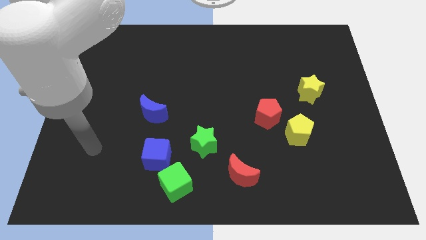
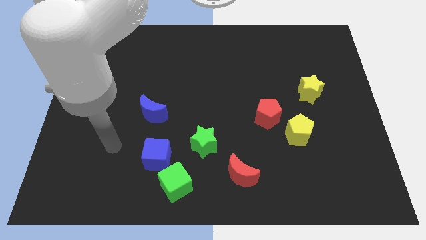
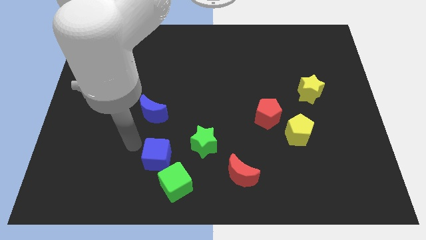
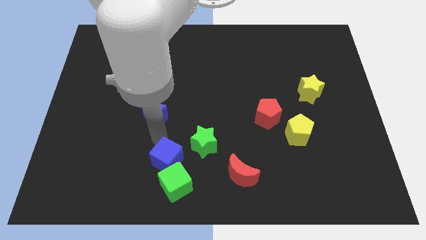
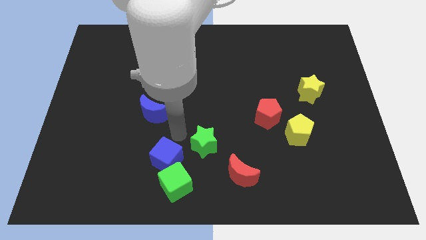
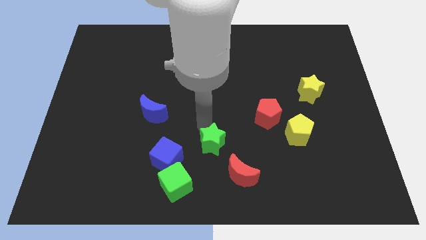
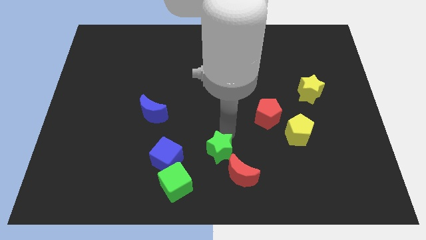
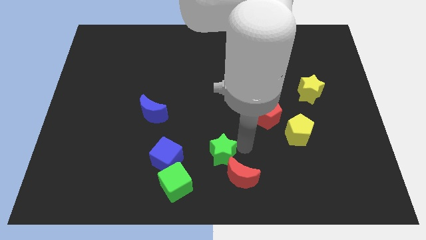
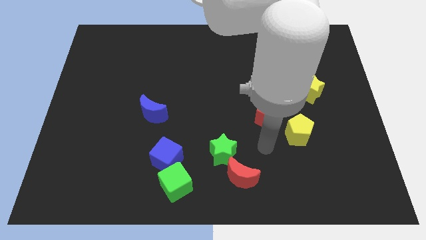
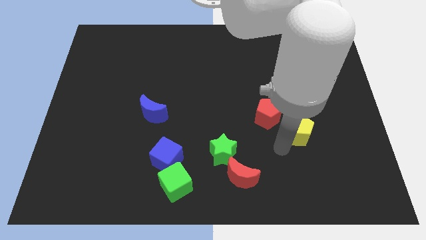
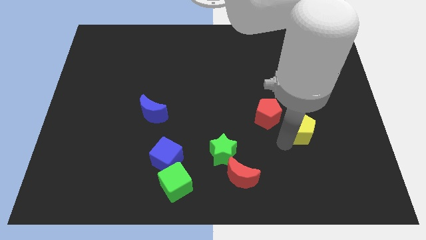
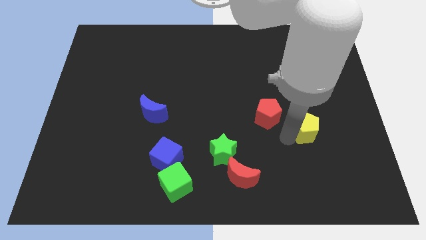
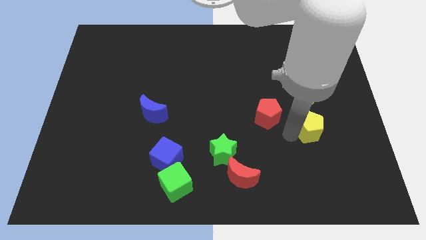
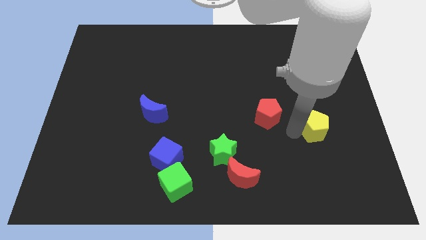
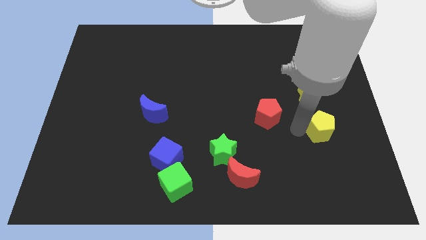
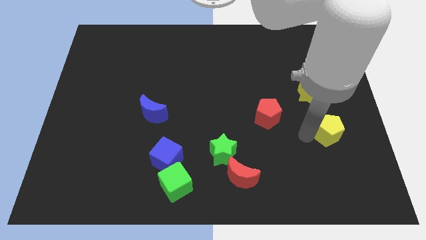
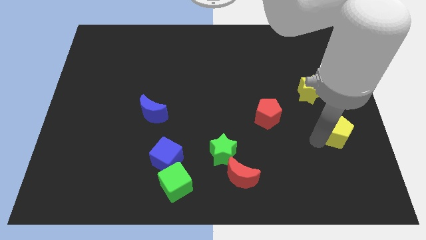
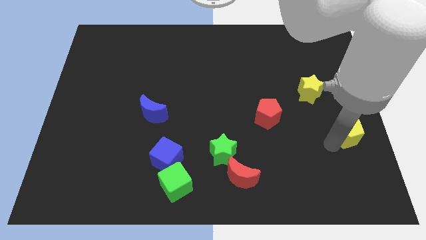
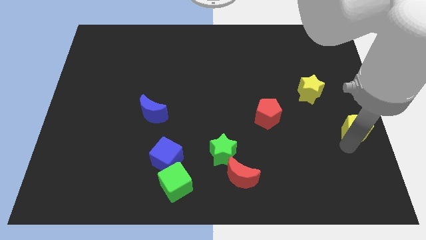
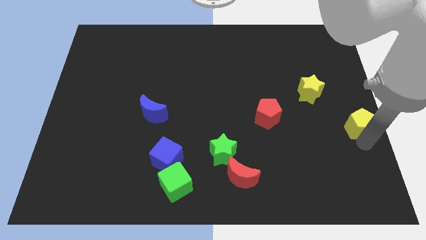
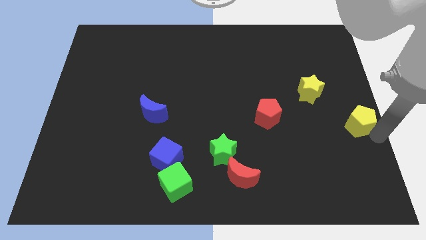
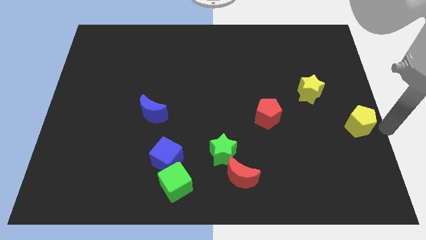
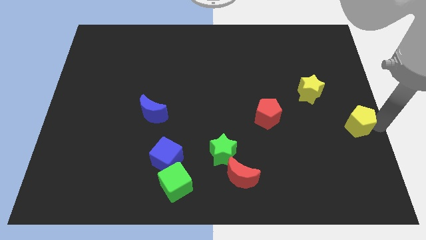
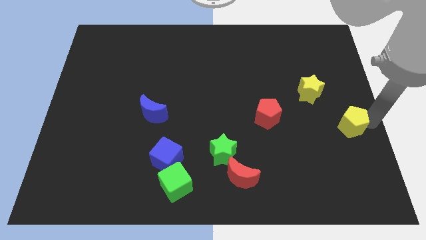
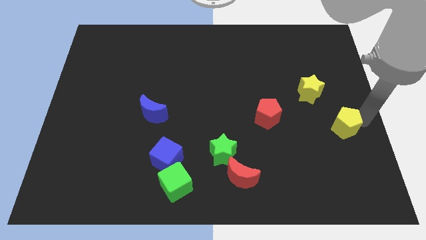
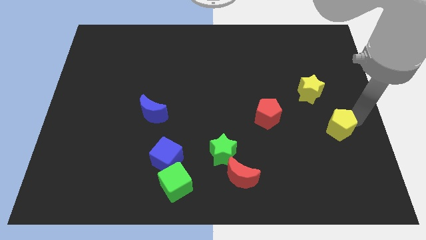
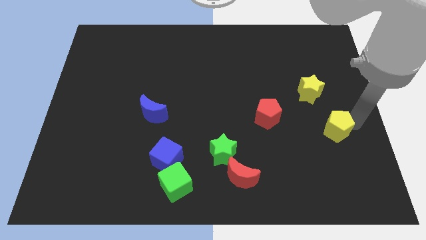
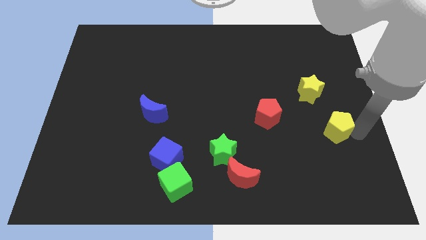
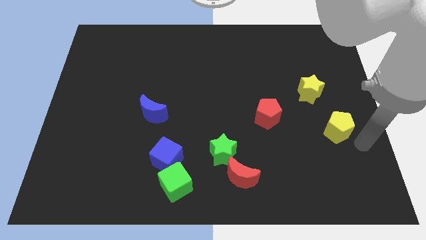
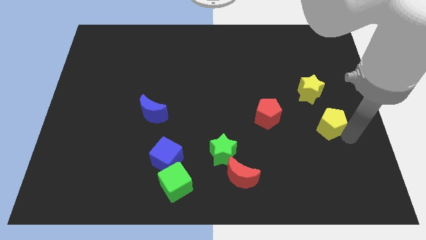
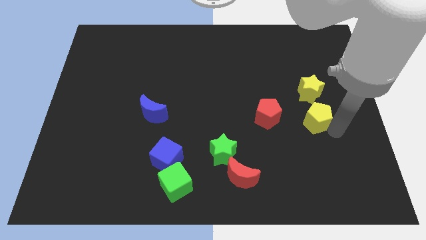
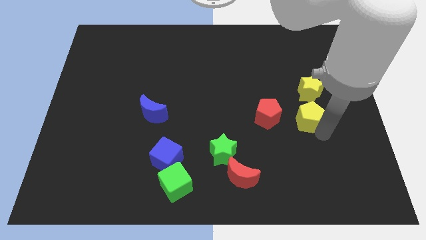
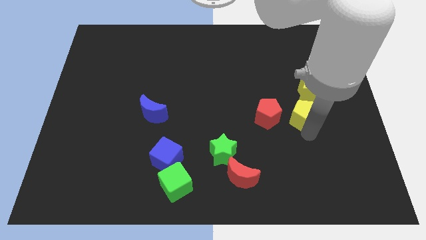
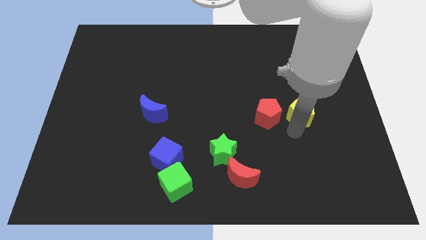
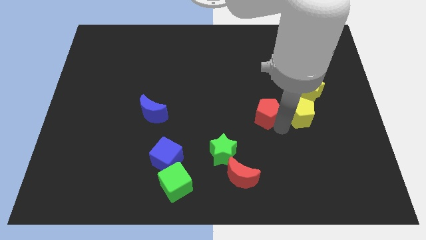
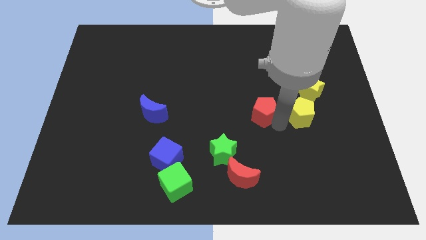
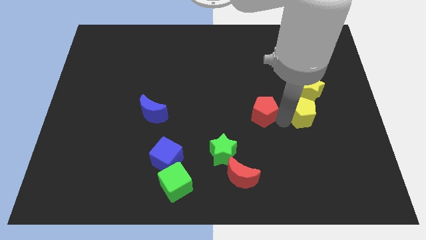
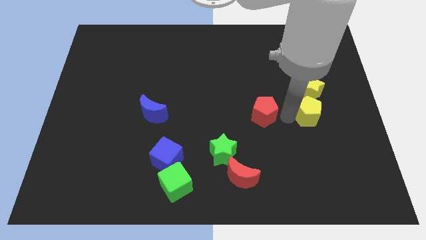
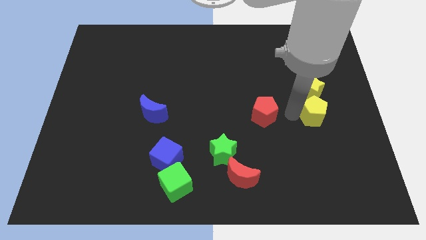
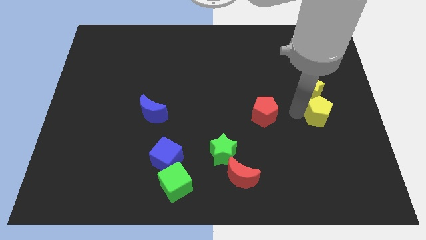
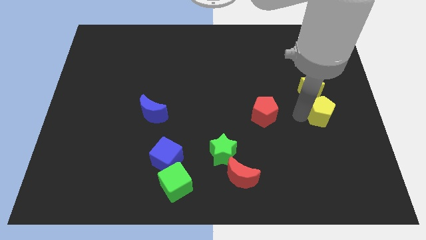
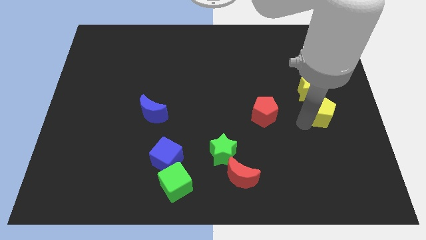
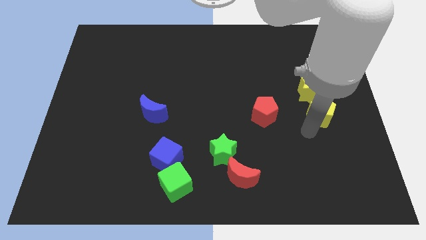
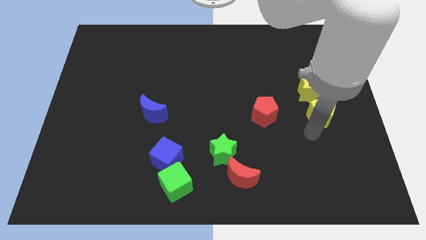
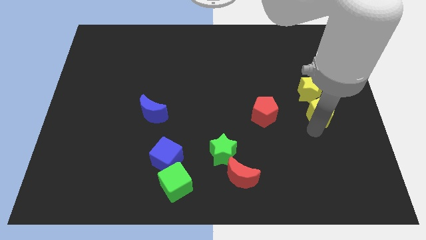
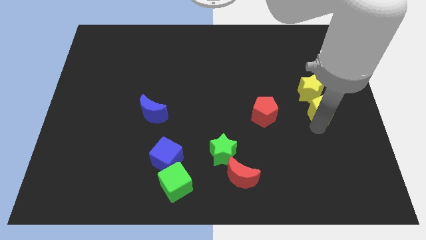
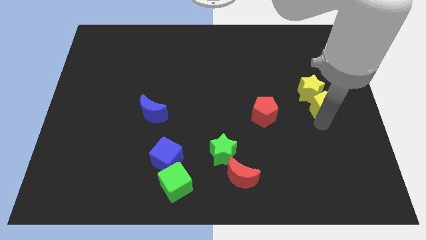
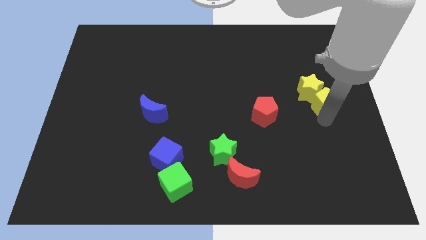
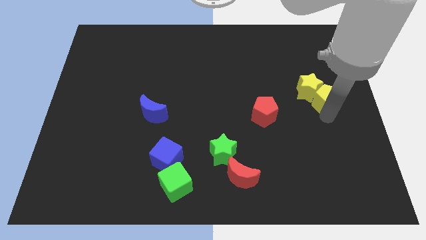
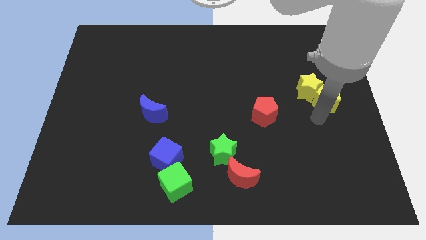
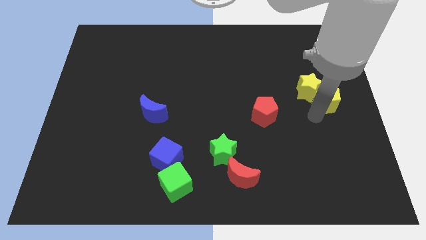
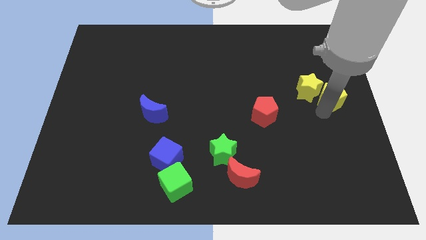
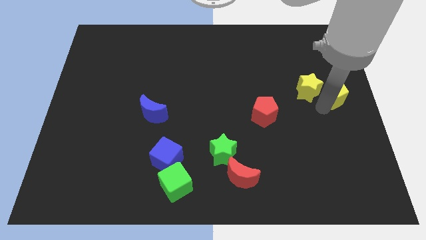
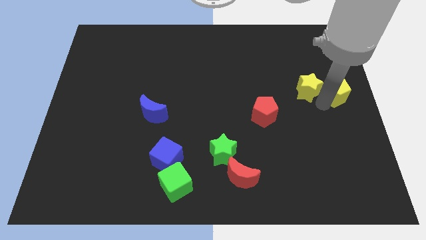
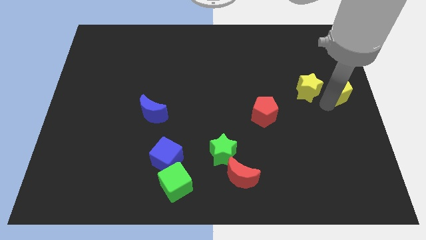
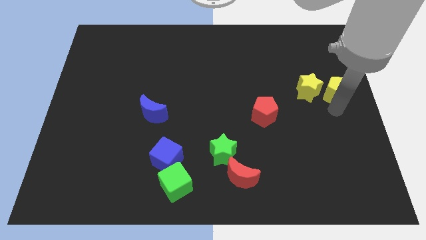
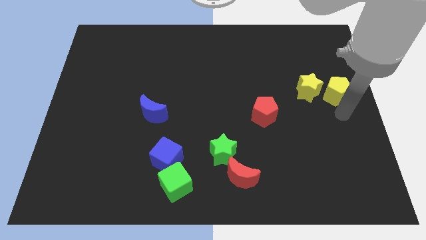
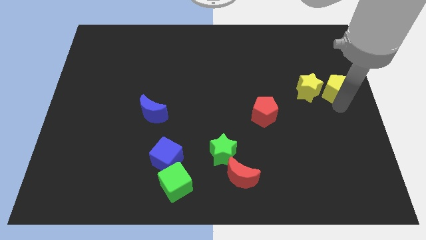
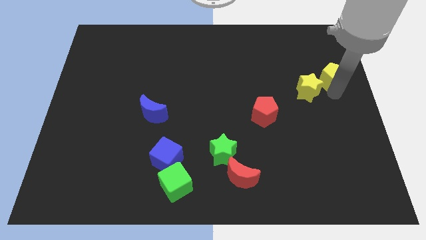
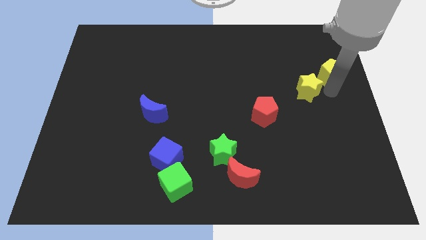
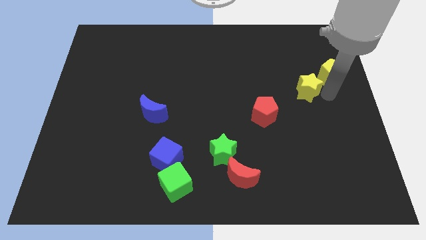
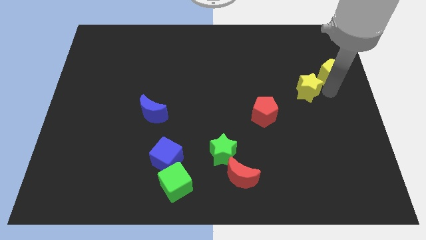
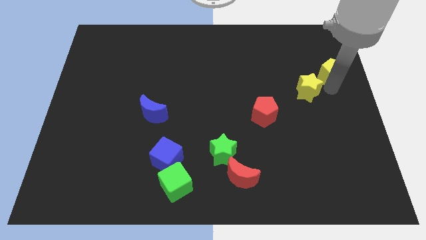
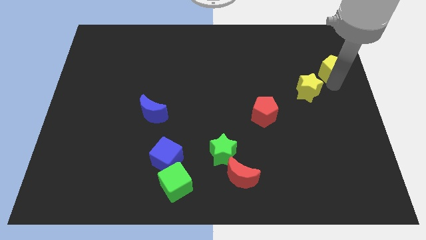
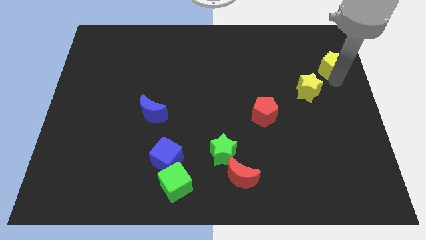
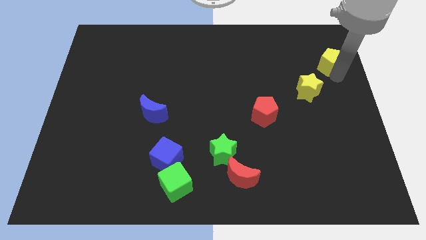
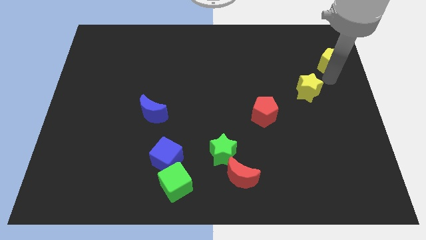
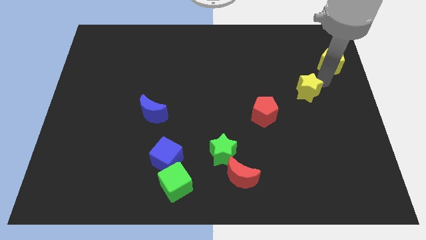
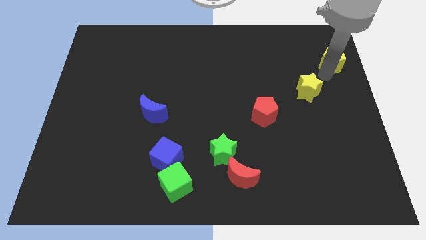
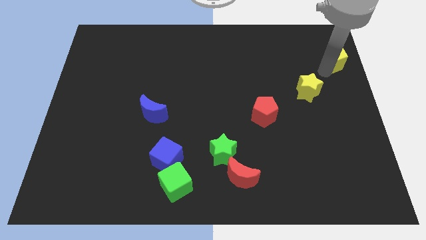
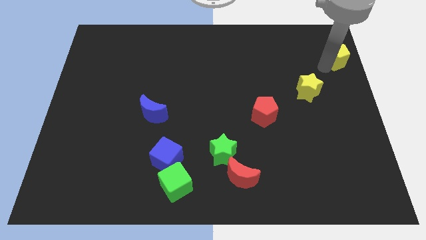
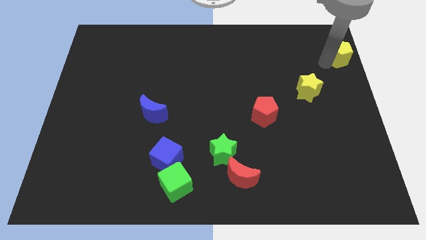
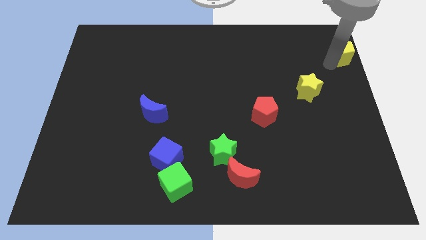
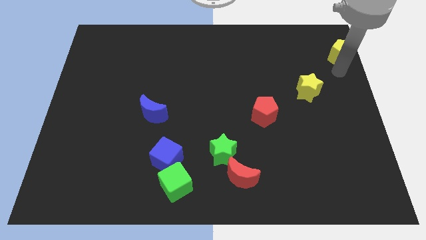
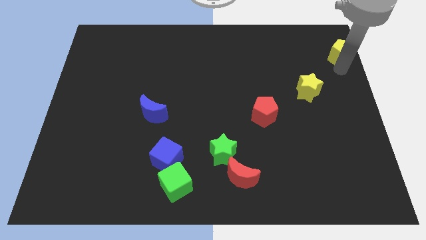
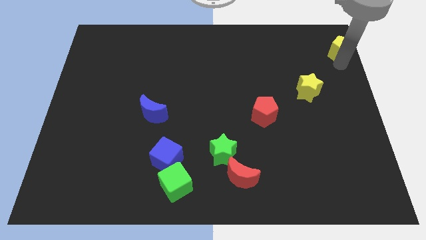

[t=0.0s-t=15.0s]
slide the yellow pentagon to the top right corner
